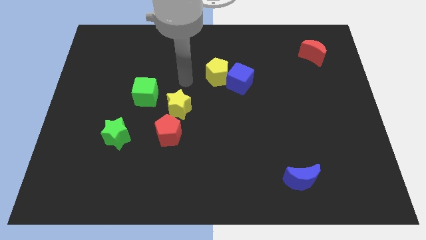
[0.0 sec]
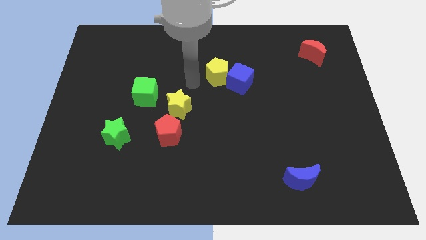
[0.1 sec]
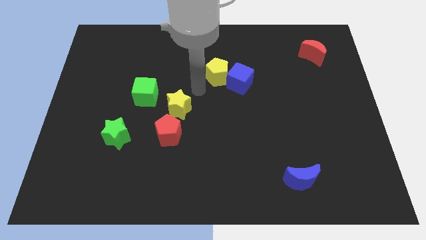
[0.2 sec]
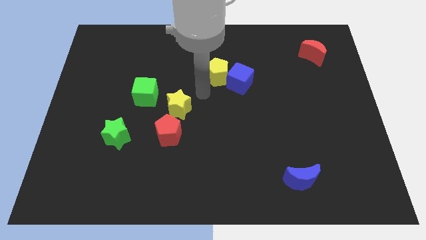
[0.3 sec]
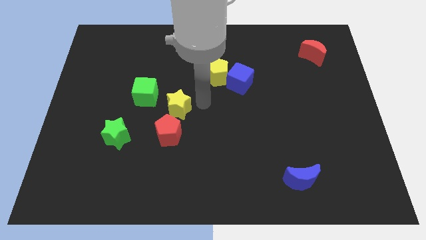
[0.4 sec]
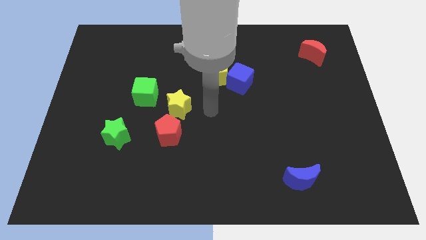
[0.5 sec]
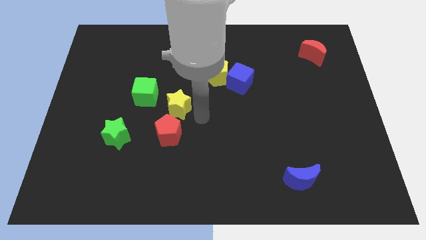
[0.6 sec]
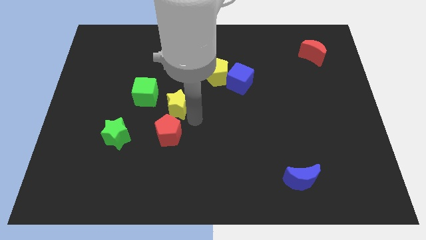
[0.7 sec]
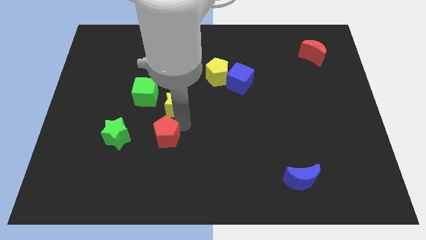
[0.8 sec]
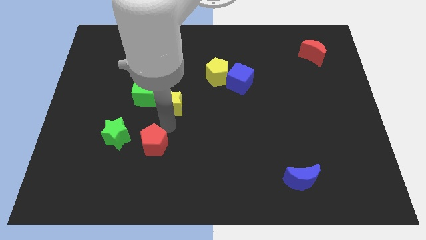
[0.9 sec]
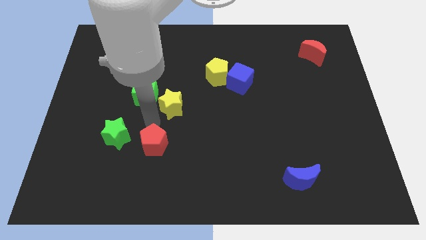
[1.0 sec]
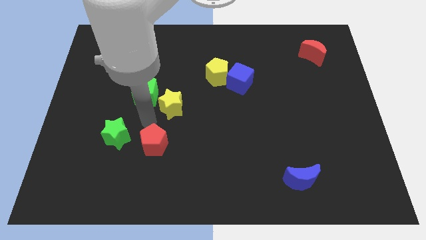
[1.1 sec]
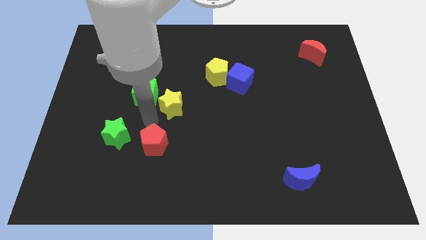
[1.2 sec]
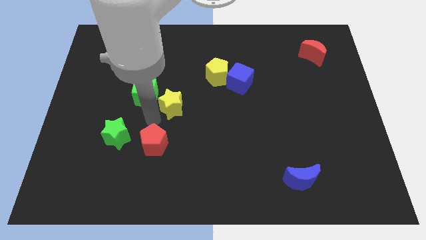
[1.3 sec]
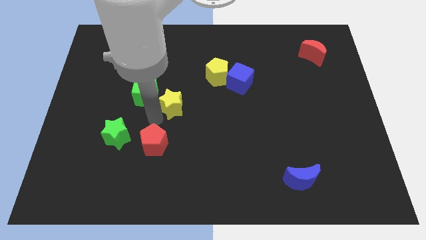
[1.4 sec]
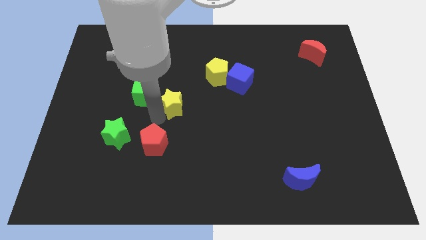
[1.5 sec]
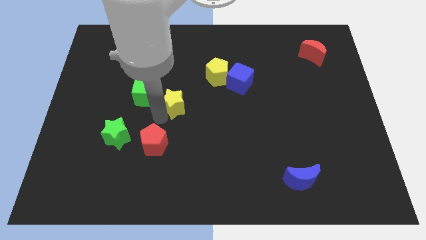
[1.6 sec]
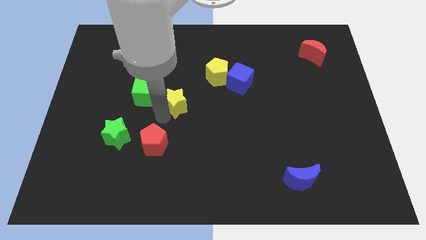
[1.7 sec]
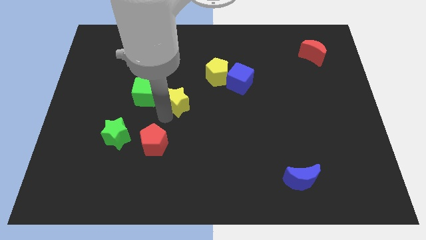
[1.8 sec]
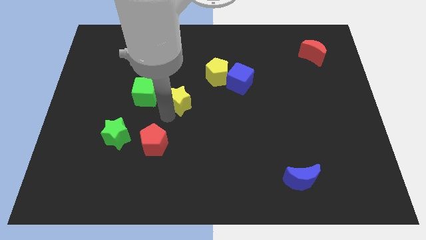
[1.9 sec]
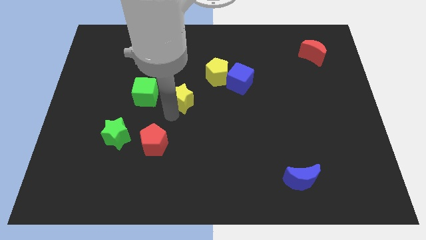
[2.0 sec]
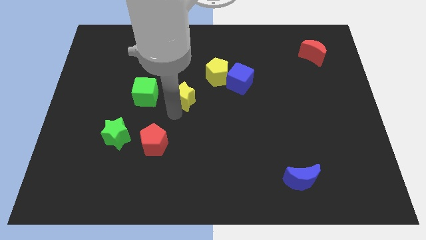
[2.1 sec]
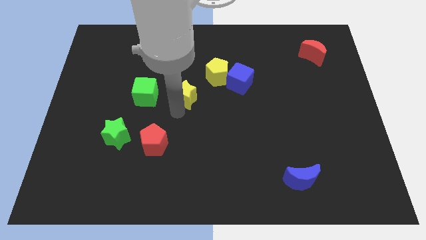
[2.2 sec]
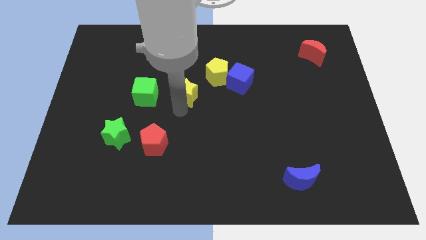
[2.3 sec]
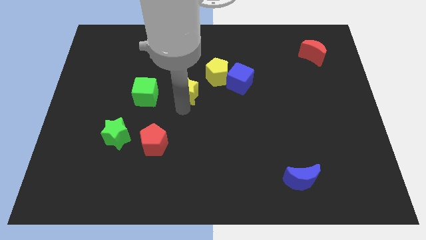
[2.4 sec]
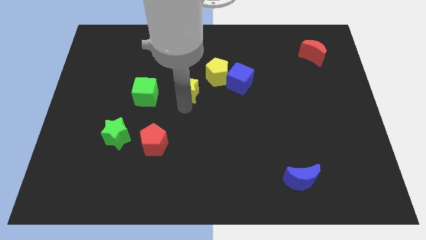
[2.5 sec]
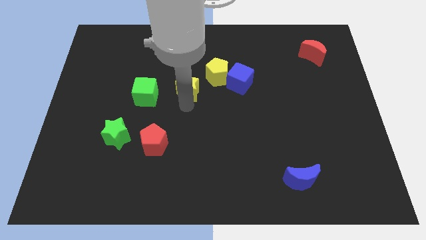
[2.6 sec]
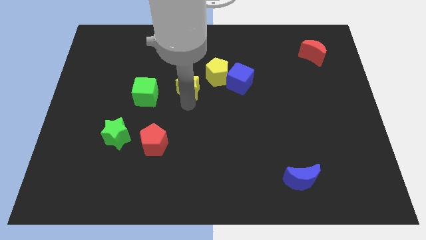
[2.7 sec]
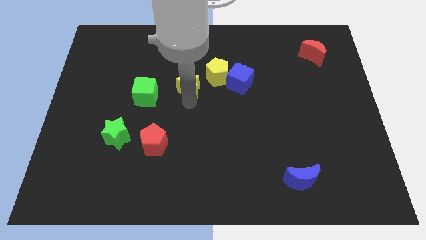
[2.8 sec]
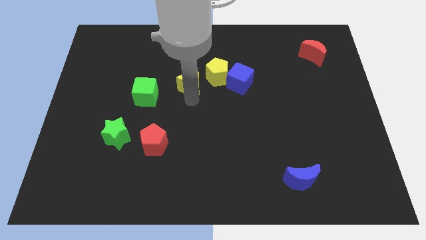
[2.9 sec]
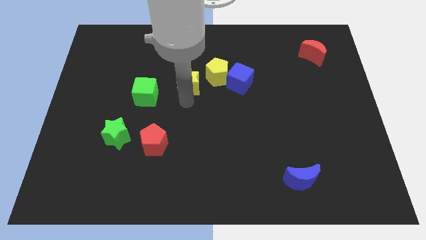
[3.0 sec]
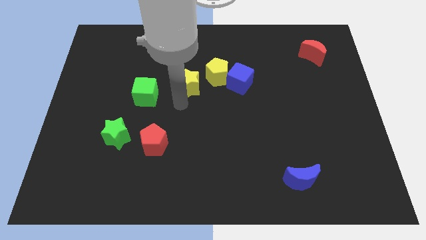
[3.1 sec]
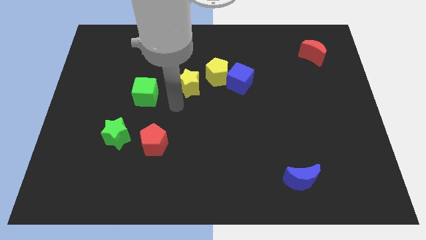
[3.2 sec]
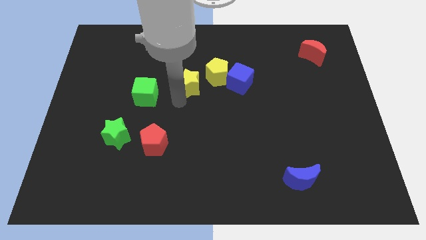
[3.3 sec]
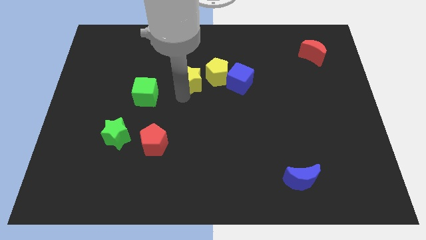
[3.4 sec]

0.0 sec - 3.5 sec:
slightly move the yellow star upwards and then to the right

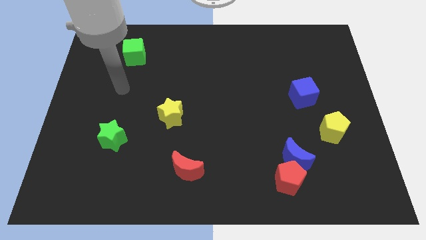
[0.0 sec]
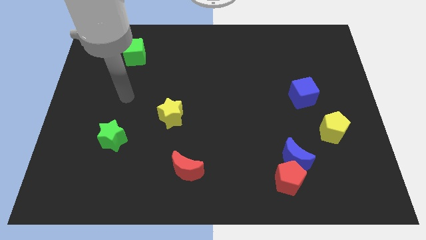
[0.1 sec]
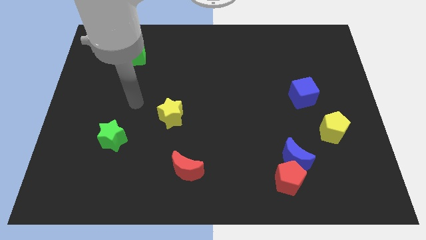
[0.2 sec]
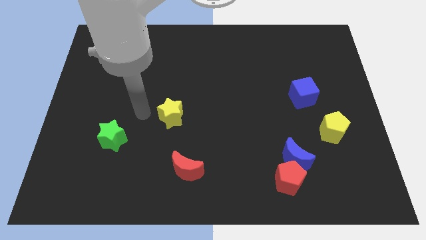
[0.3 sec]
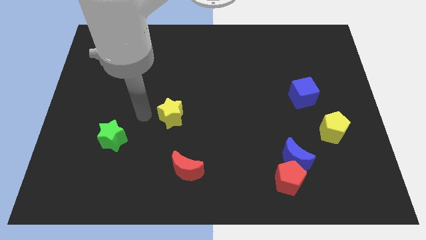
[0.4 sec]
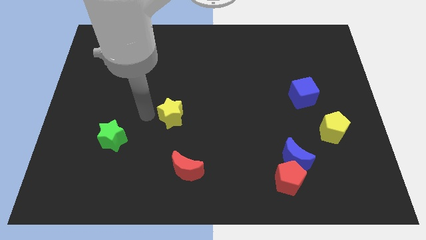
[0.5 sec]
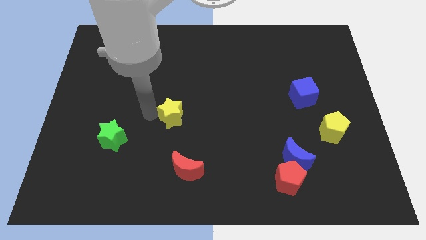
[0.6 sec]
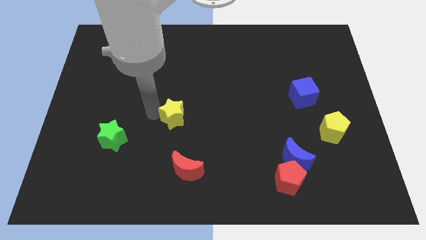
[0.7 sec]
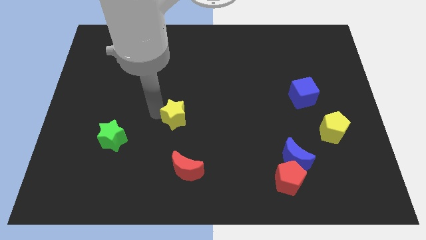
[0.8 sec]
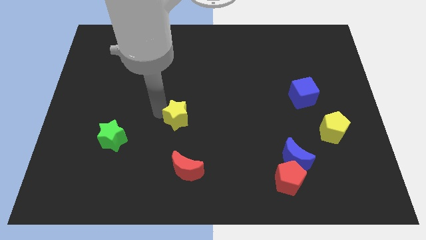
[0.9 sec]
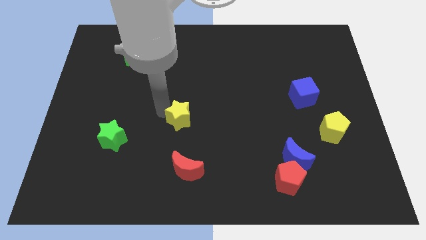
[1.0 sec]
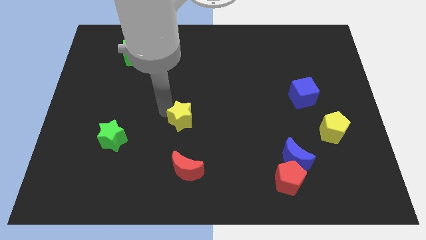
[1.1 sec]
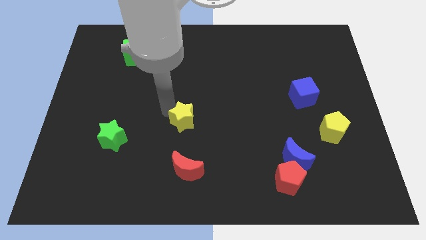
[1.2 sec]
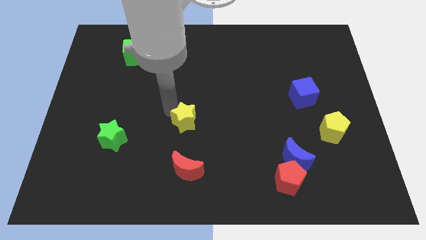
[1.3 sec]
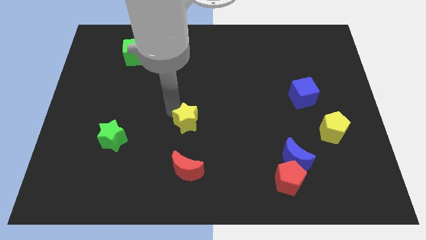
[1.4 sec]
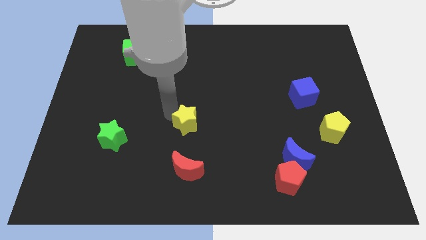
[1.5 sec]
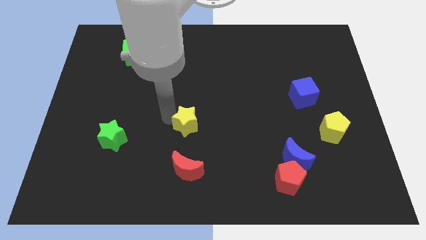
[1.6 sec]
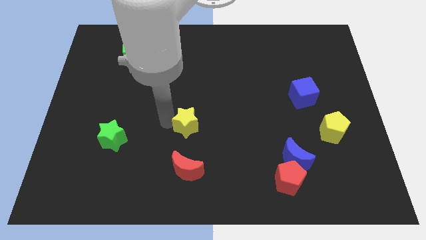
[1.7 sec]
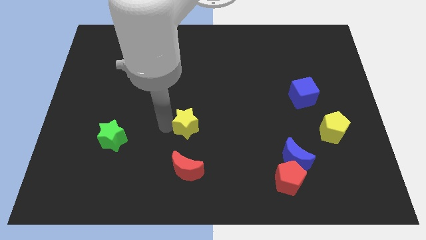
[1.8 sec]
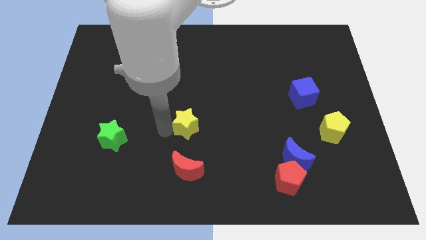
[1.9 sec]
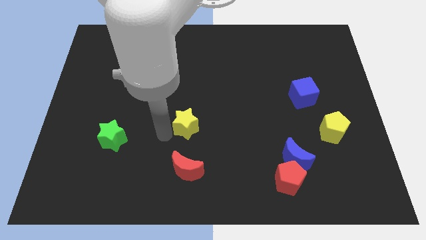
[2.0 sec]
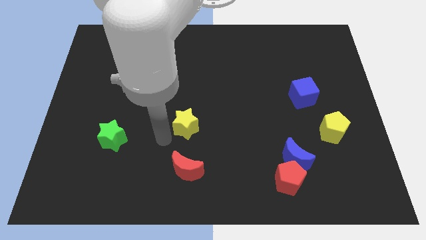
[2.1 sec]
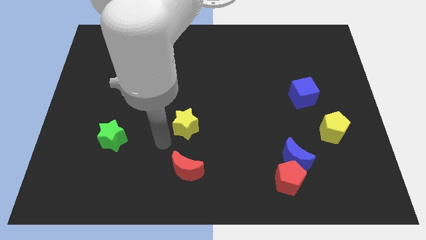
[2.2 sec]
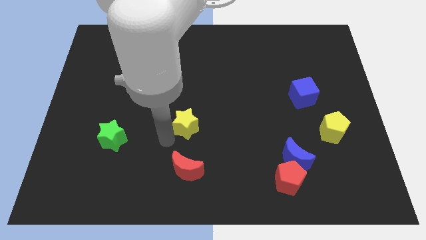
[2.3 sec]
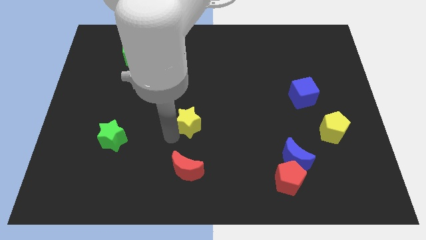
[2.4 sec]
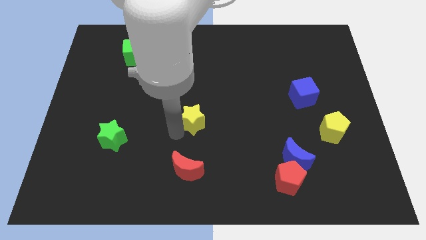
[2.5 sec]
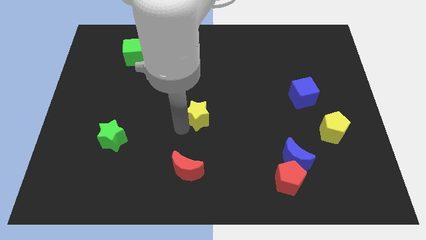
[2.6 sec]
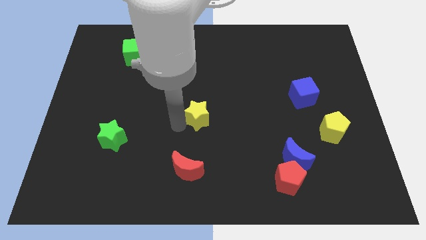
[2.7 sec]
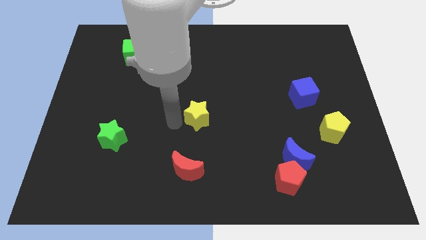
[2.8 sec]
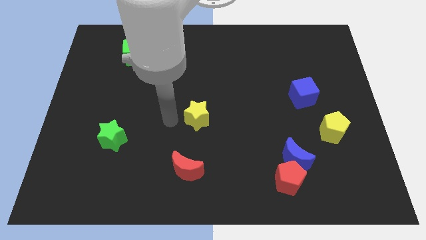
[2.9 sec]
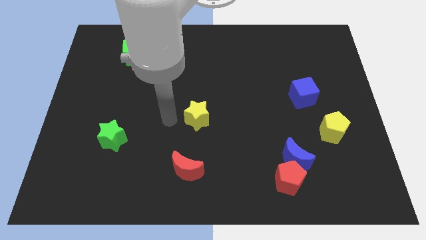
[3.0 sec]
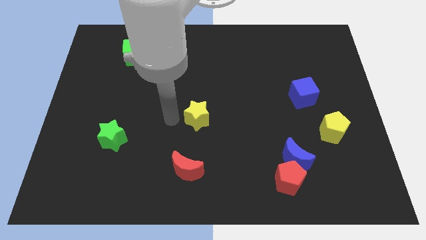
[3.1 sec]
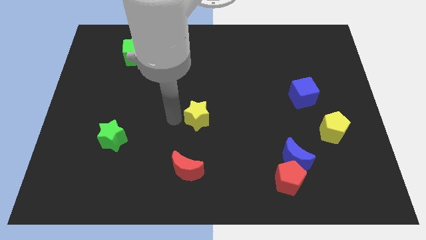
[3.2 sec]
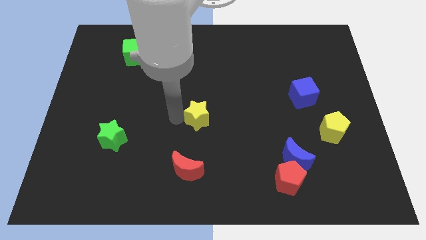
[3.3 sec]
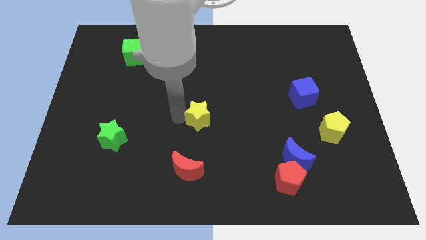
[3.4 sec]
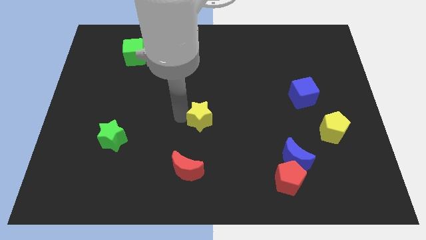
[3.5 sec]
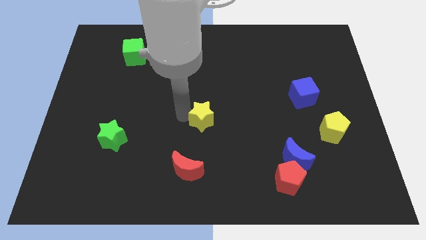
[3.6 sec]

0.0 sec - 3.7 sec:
move the yellow star to the right somewhat

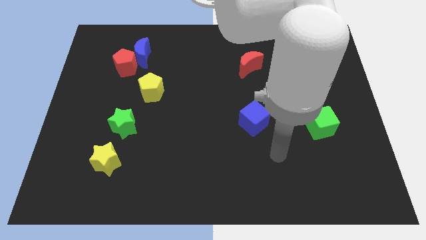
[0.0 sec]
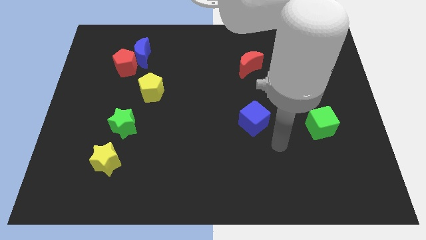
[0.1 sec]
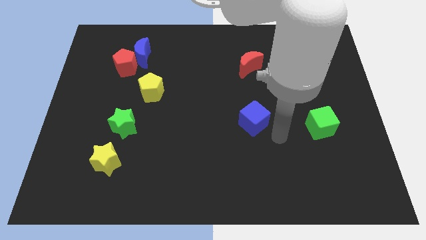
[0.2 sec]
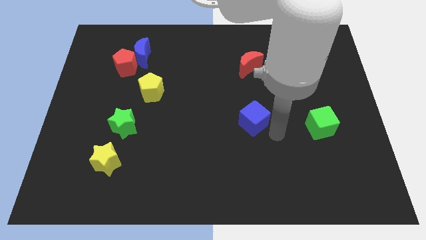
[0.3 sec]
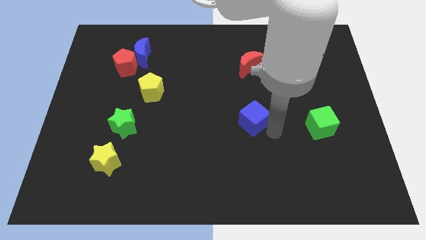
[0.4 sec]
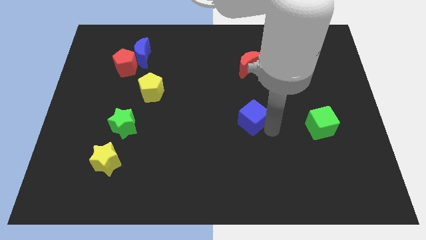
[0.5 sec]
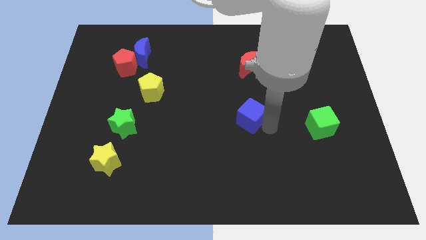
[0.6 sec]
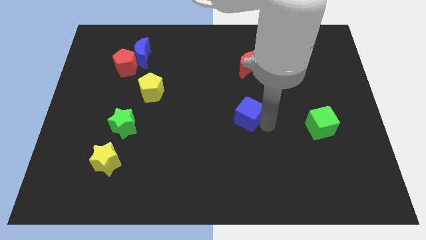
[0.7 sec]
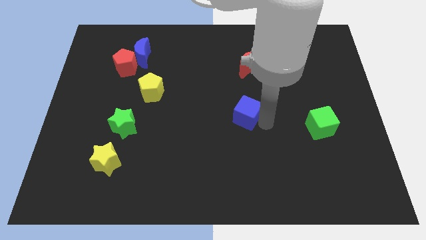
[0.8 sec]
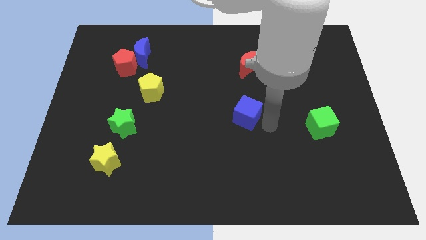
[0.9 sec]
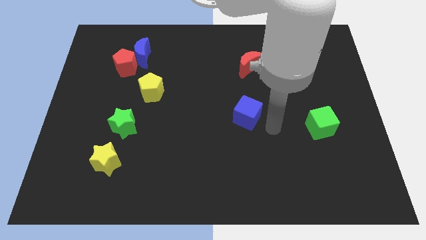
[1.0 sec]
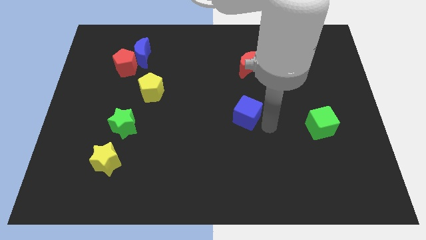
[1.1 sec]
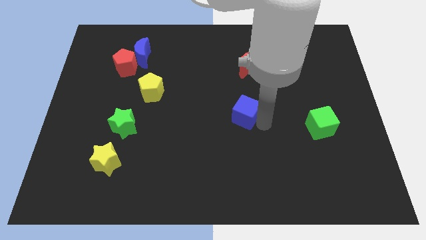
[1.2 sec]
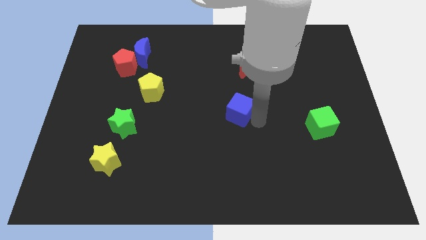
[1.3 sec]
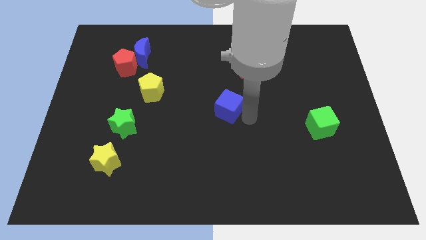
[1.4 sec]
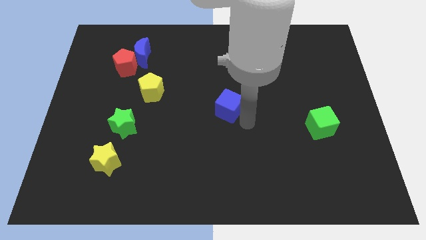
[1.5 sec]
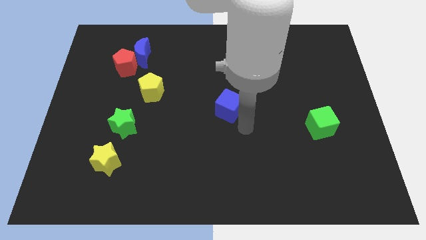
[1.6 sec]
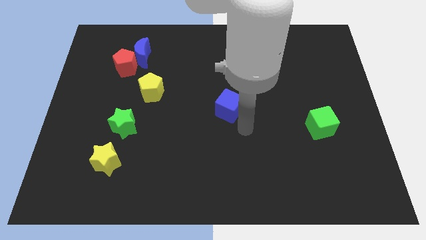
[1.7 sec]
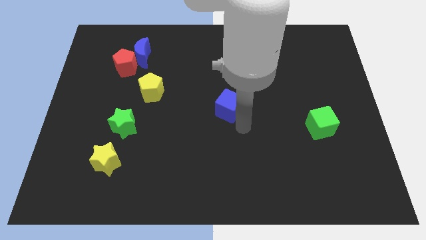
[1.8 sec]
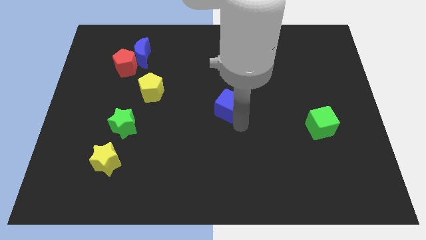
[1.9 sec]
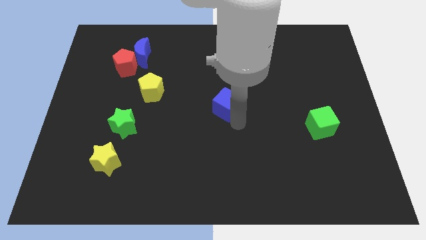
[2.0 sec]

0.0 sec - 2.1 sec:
push the blue cube upwards and to the left diagonally somewhat
